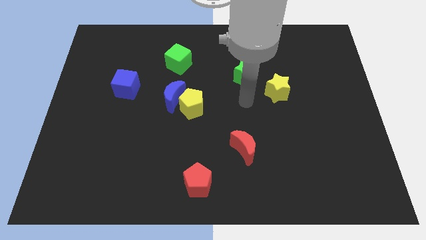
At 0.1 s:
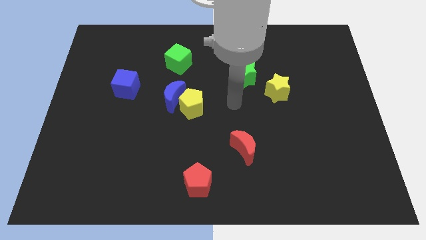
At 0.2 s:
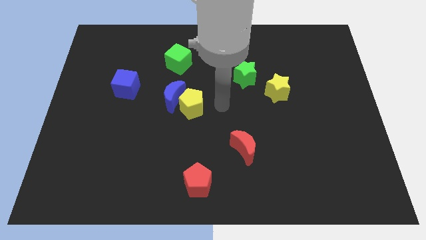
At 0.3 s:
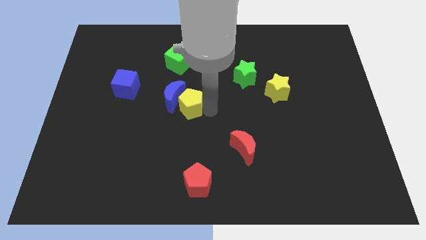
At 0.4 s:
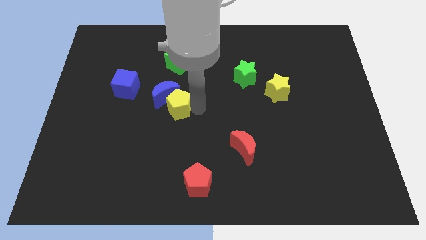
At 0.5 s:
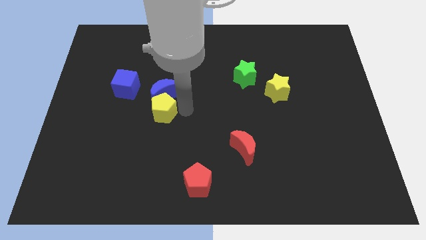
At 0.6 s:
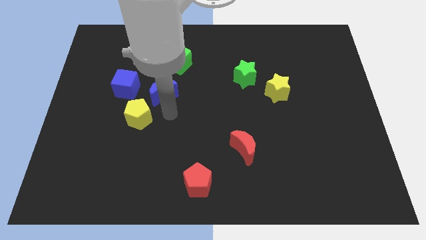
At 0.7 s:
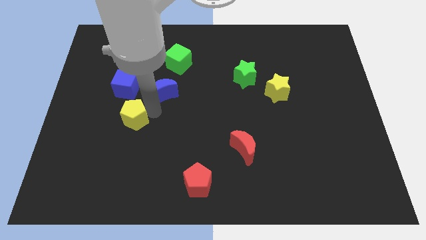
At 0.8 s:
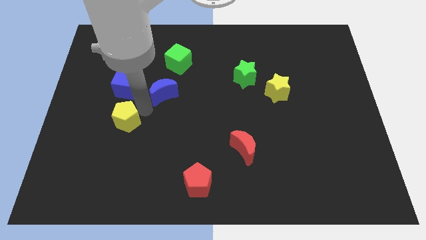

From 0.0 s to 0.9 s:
pull the blue moon apart from the yellow pentagon

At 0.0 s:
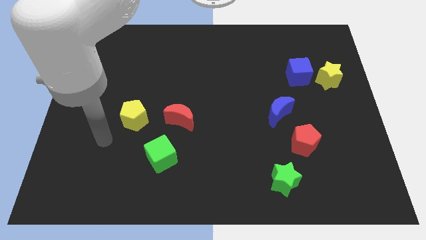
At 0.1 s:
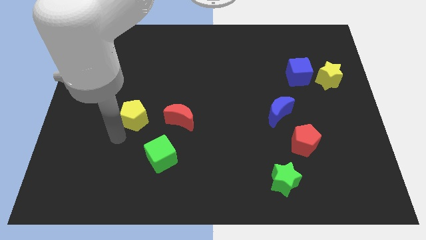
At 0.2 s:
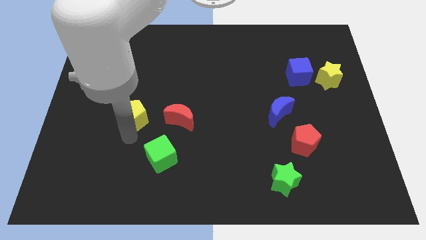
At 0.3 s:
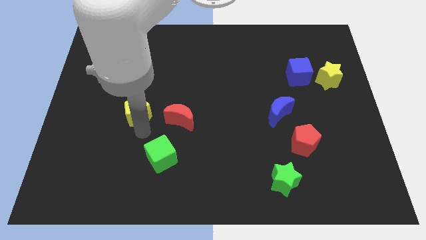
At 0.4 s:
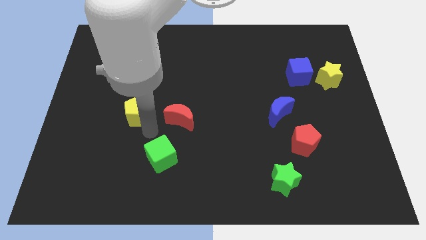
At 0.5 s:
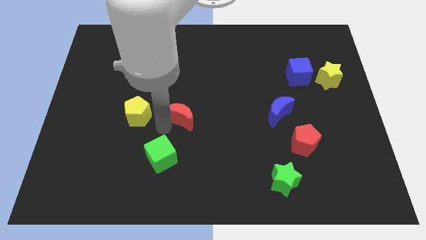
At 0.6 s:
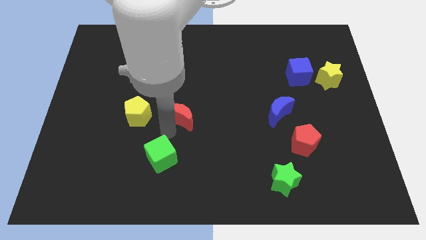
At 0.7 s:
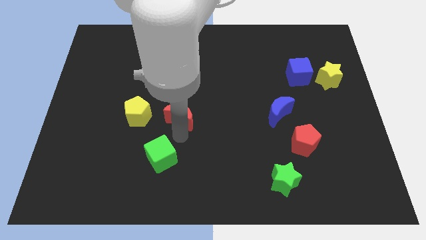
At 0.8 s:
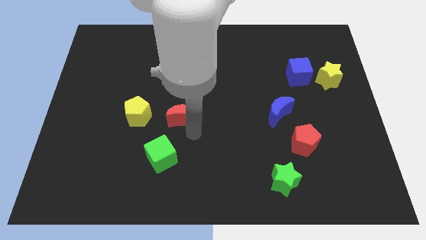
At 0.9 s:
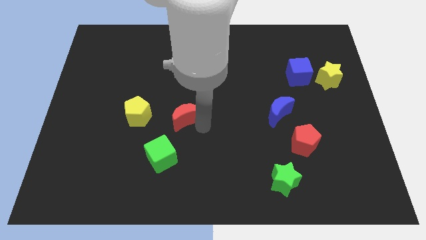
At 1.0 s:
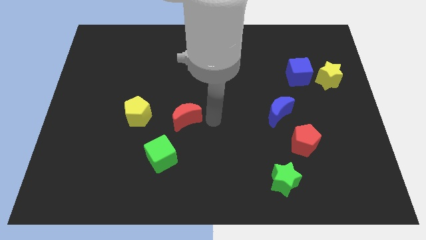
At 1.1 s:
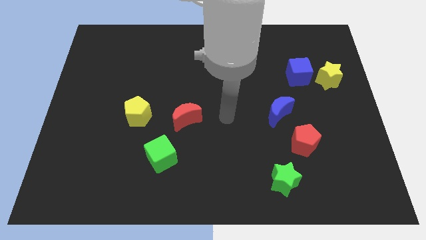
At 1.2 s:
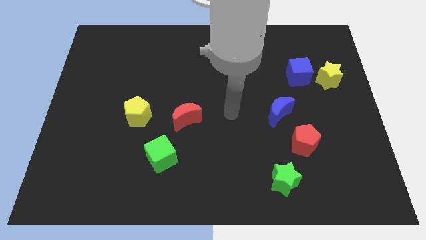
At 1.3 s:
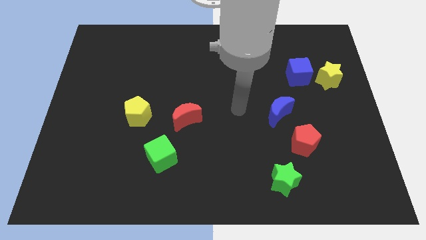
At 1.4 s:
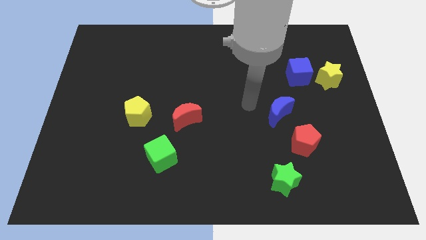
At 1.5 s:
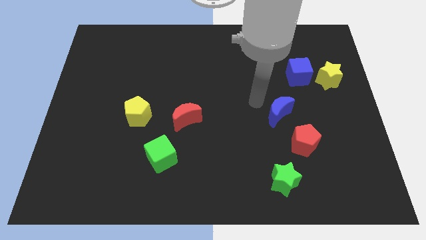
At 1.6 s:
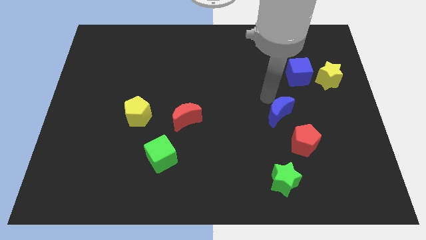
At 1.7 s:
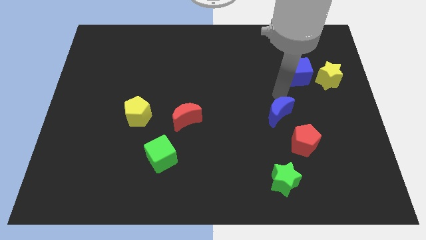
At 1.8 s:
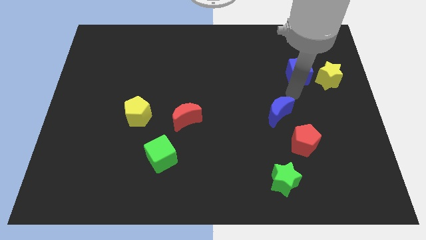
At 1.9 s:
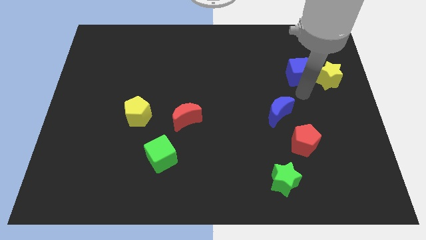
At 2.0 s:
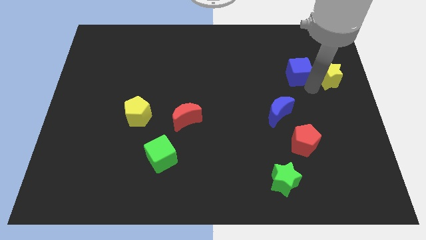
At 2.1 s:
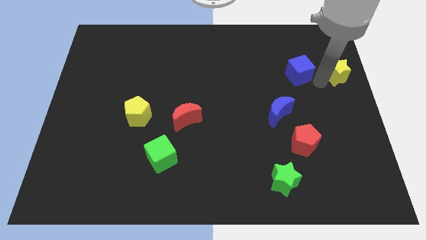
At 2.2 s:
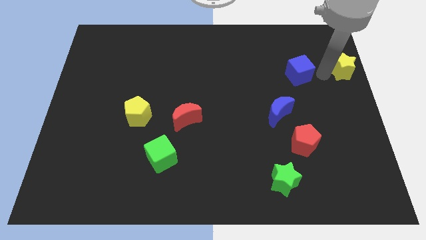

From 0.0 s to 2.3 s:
separate the blue cube from the yellow star

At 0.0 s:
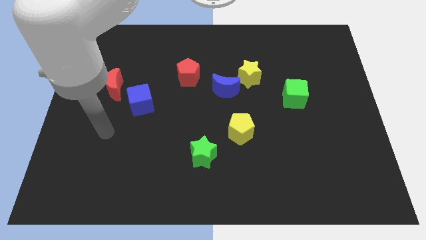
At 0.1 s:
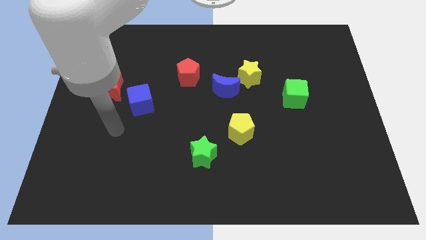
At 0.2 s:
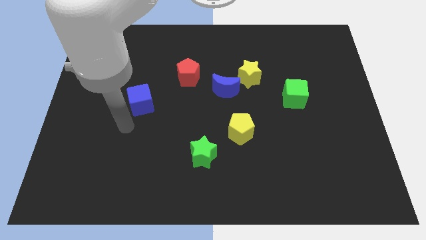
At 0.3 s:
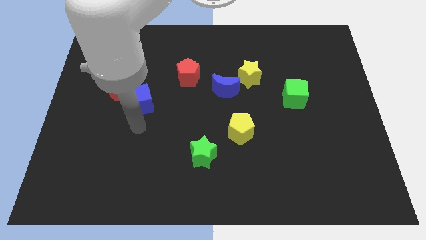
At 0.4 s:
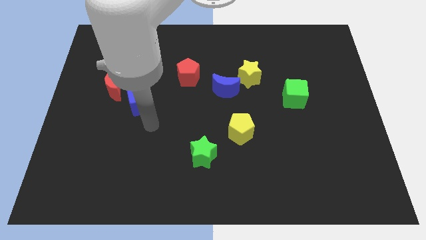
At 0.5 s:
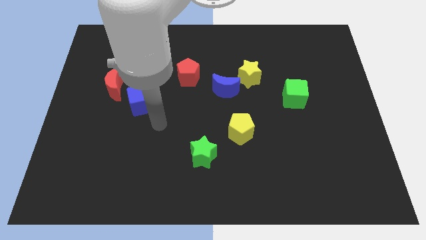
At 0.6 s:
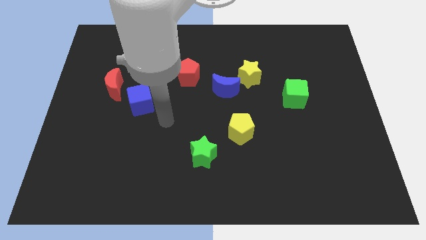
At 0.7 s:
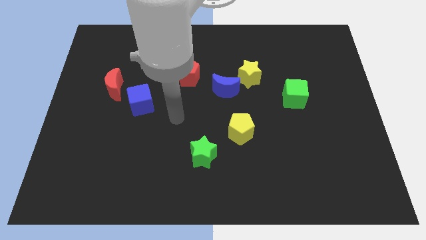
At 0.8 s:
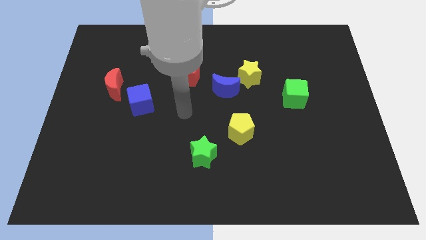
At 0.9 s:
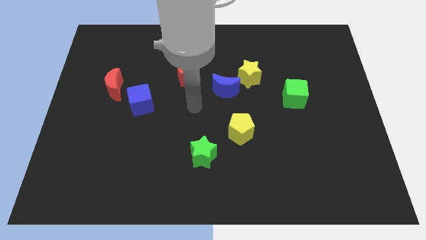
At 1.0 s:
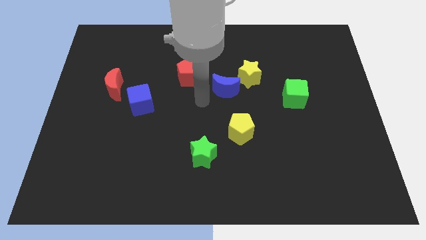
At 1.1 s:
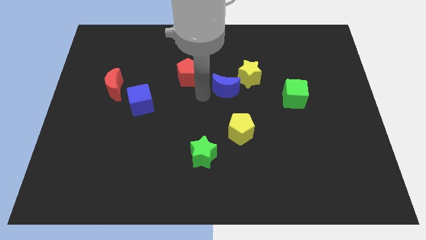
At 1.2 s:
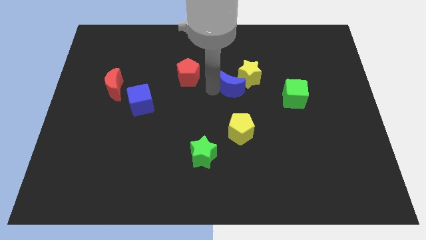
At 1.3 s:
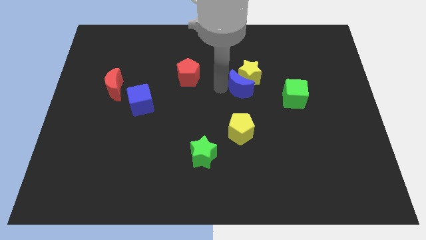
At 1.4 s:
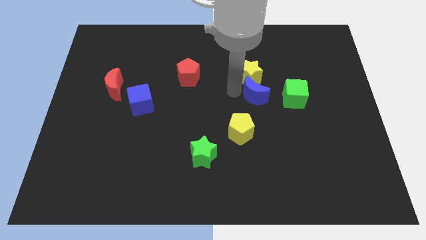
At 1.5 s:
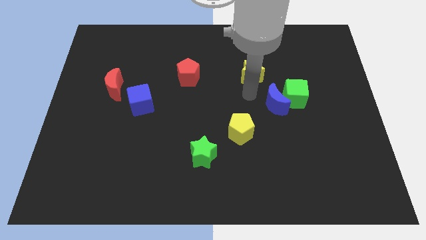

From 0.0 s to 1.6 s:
separate the yellow star from the blue moon

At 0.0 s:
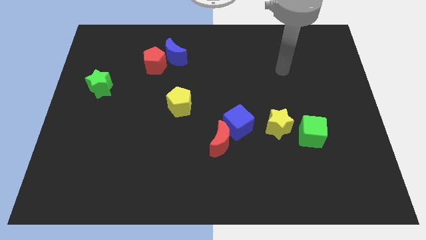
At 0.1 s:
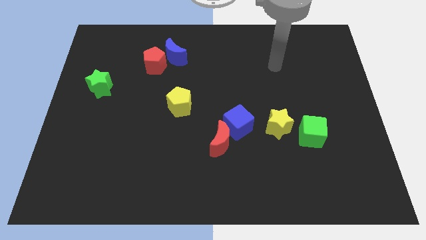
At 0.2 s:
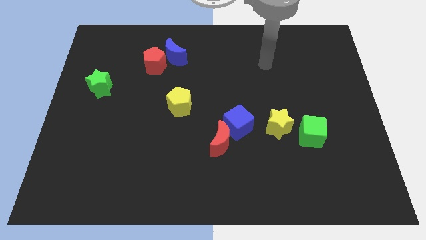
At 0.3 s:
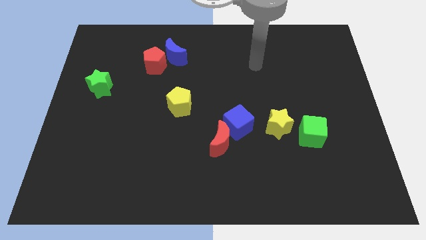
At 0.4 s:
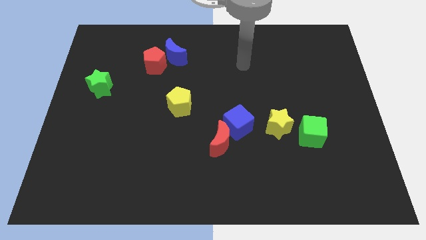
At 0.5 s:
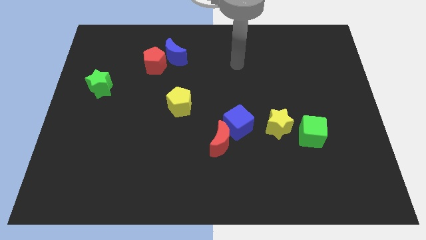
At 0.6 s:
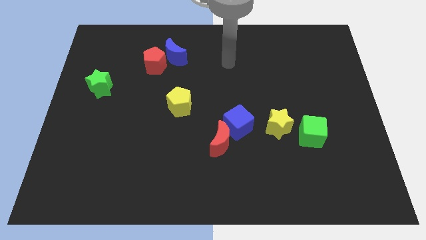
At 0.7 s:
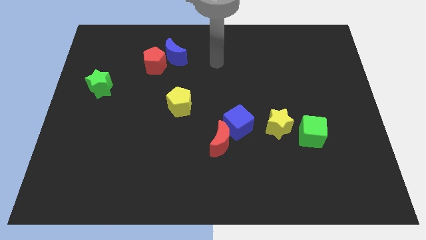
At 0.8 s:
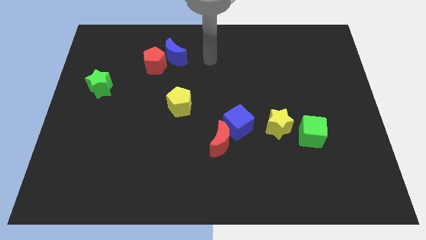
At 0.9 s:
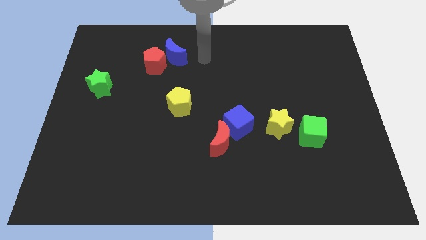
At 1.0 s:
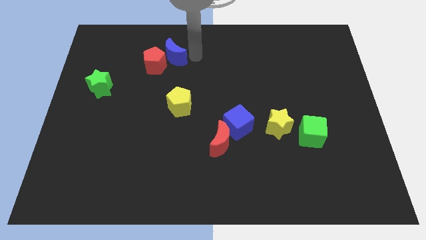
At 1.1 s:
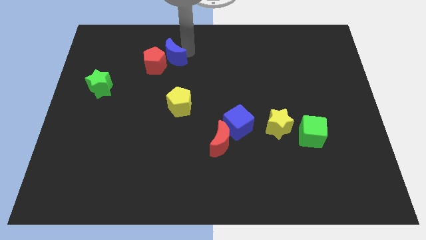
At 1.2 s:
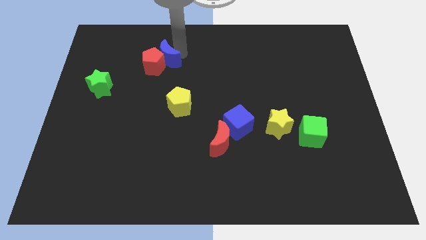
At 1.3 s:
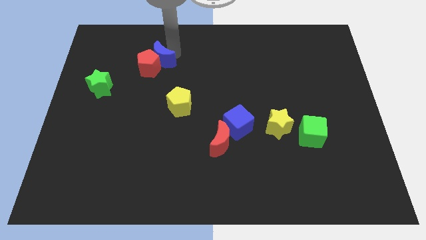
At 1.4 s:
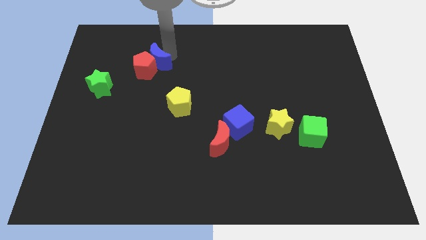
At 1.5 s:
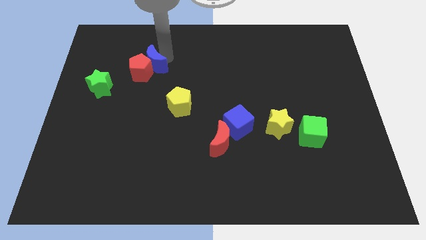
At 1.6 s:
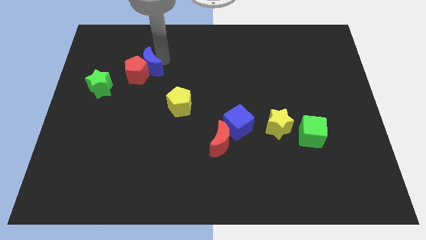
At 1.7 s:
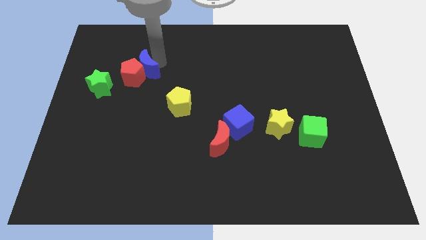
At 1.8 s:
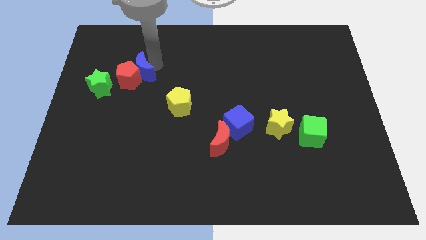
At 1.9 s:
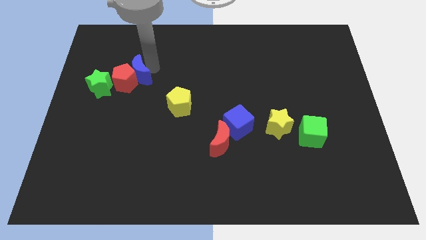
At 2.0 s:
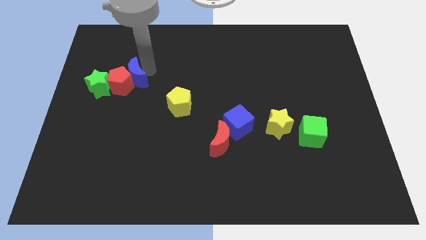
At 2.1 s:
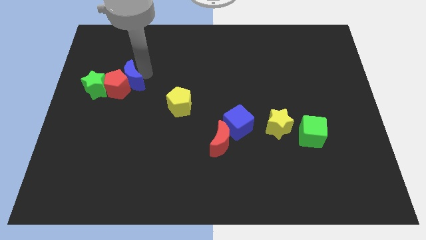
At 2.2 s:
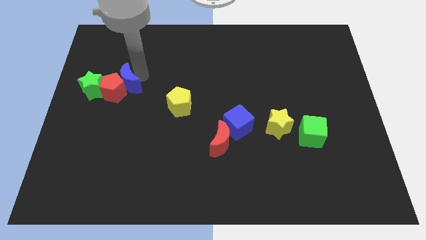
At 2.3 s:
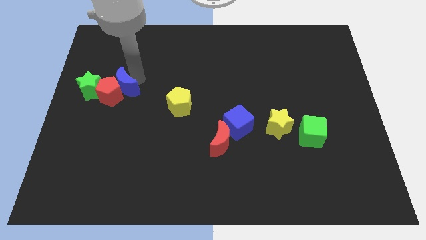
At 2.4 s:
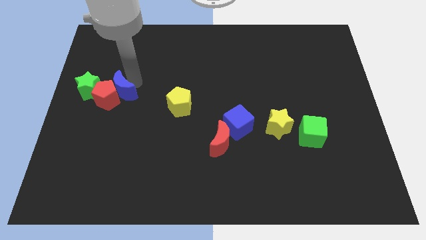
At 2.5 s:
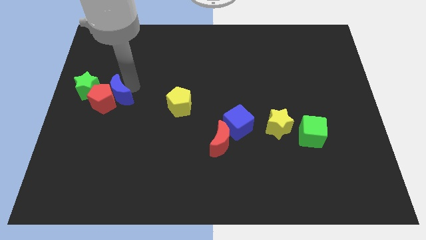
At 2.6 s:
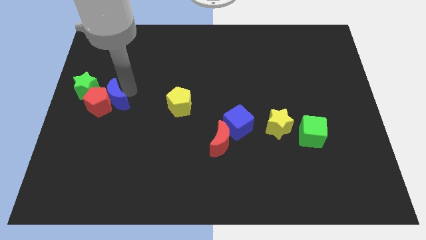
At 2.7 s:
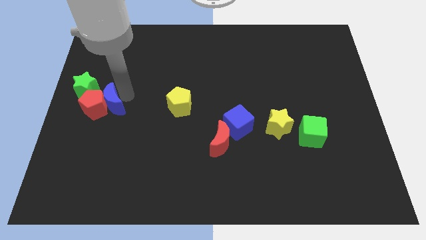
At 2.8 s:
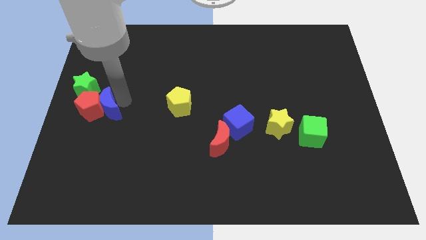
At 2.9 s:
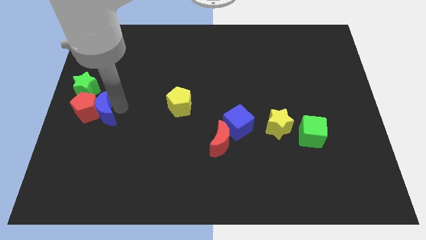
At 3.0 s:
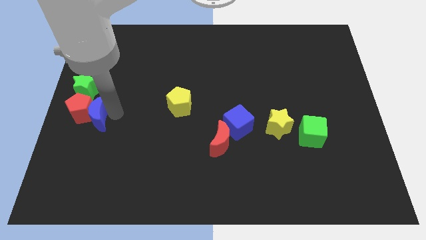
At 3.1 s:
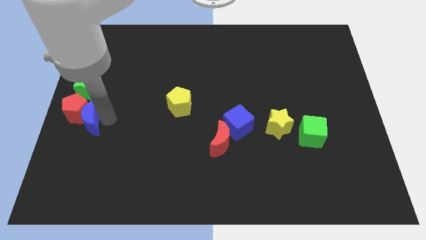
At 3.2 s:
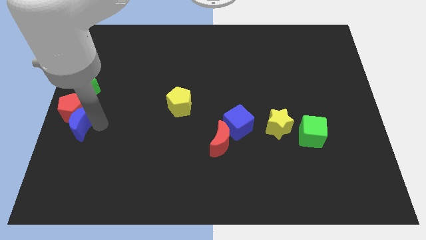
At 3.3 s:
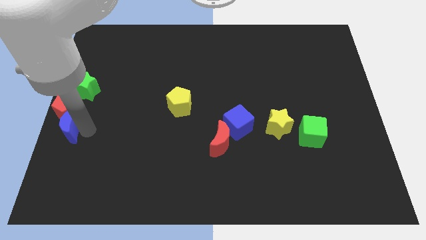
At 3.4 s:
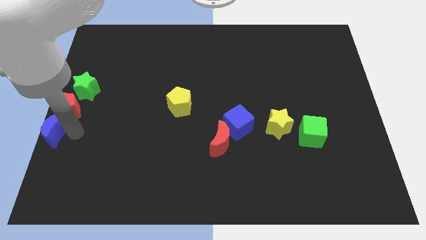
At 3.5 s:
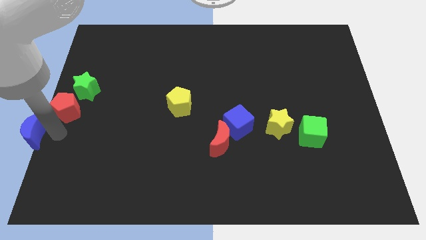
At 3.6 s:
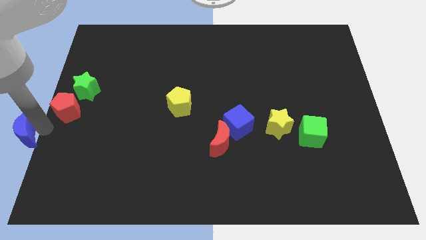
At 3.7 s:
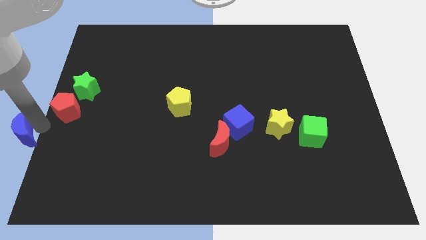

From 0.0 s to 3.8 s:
move the red pentagon away from the blue moon

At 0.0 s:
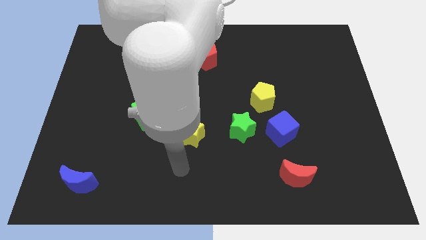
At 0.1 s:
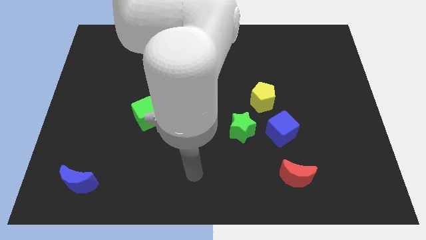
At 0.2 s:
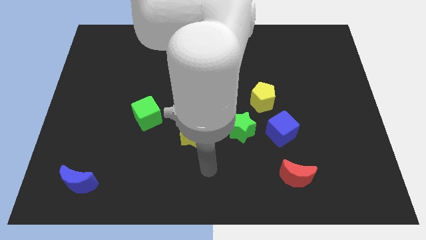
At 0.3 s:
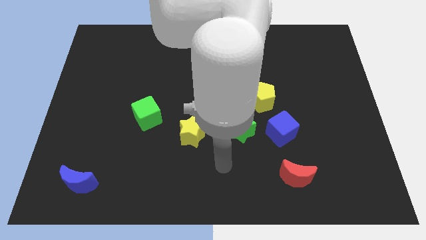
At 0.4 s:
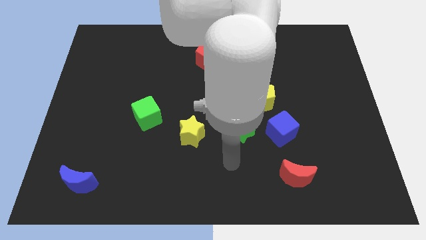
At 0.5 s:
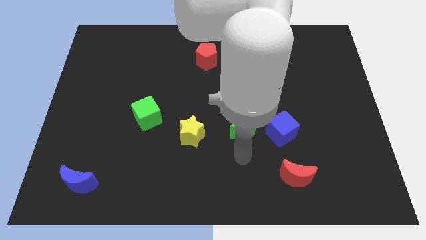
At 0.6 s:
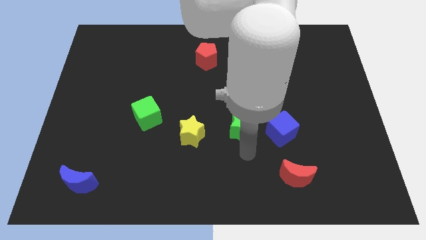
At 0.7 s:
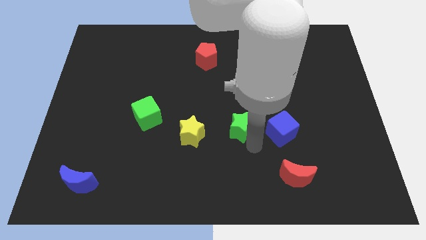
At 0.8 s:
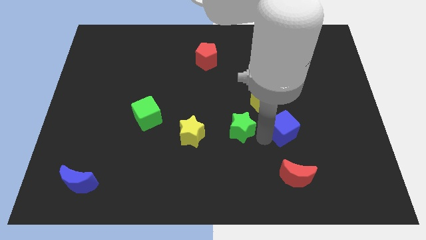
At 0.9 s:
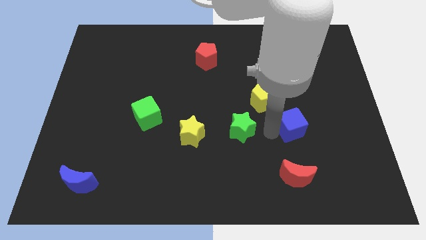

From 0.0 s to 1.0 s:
pull the green star apart from the blue cube
